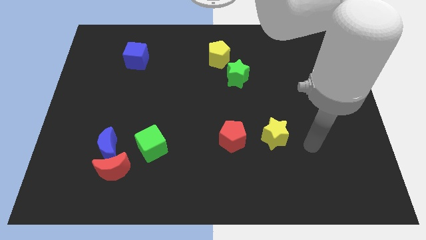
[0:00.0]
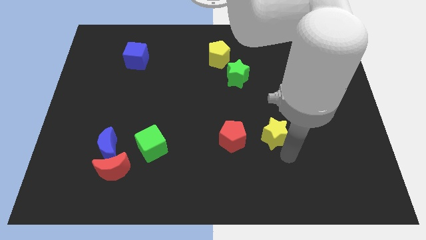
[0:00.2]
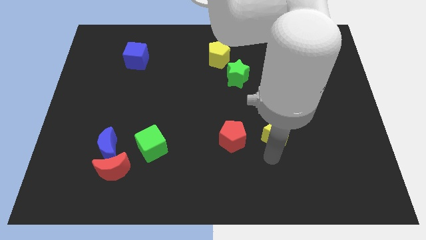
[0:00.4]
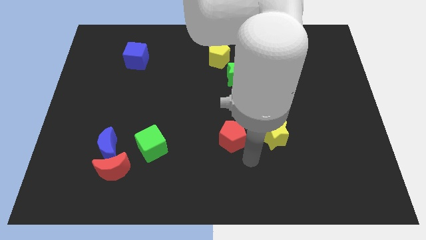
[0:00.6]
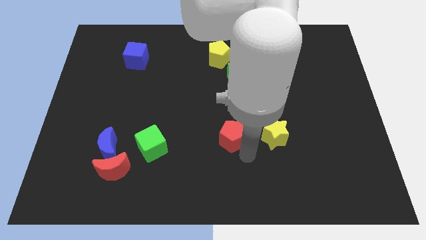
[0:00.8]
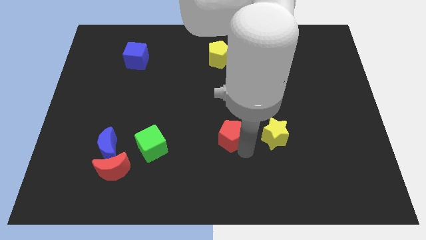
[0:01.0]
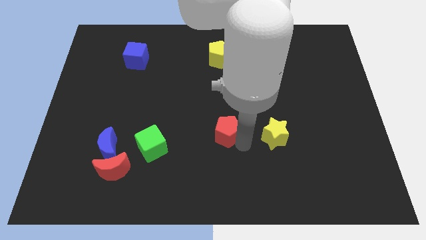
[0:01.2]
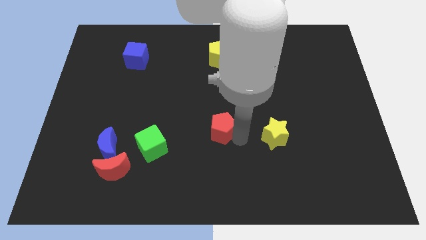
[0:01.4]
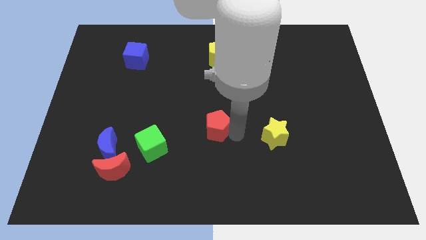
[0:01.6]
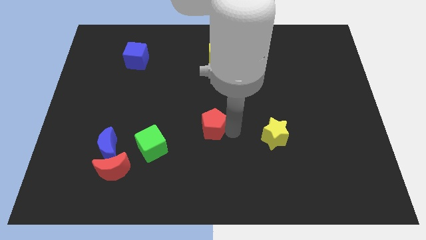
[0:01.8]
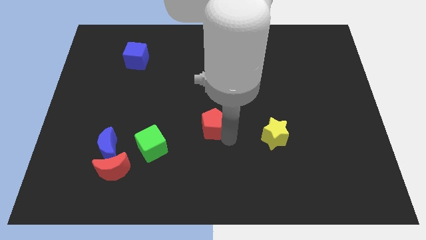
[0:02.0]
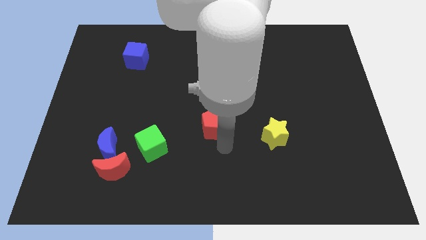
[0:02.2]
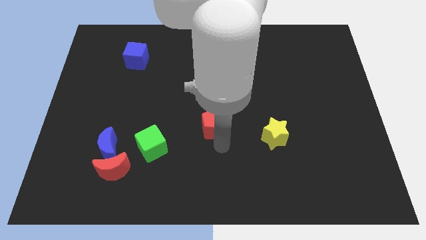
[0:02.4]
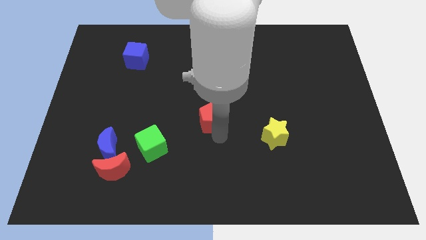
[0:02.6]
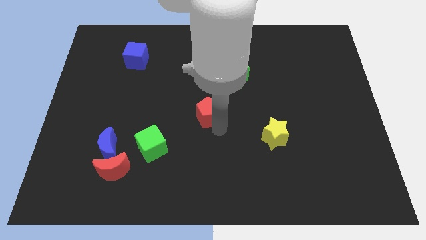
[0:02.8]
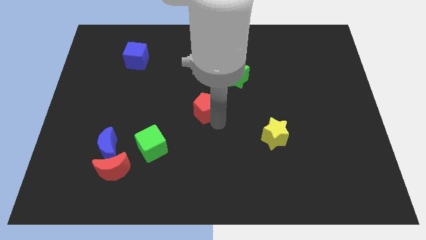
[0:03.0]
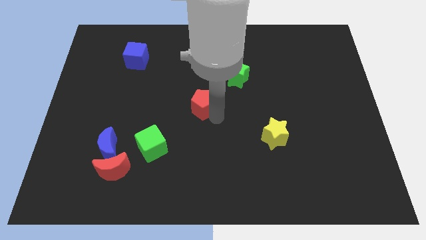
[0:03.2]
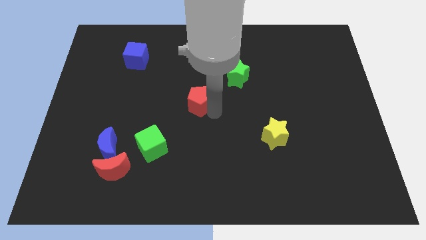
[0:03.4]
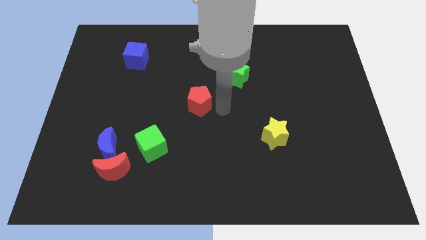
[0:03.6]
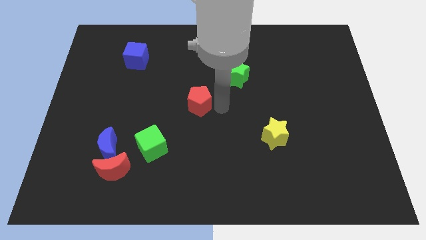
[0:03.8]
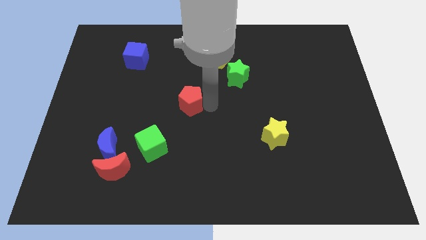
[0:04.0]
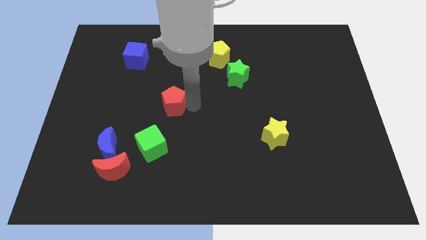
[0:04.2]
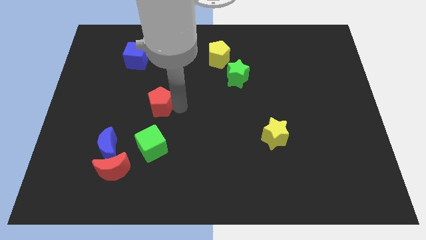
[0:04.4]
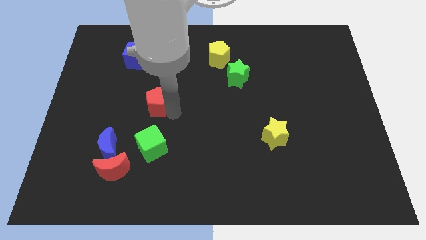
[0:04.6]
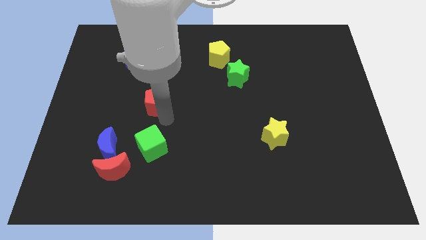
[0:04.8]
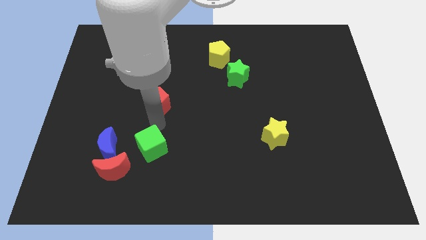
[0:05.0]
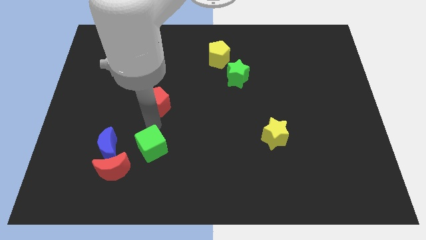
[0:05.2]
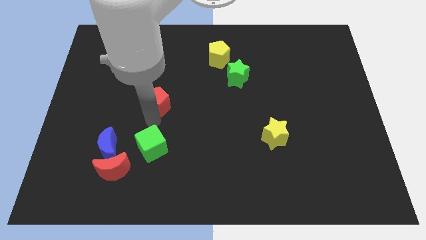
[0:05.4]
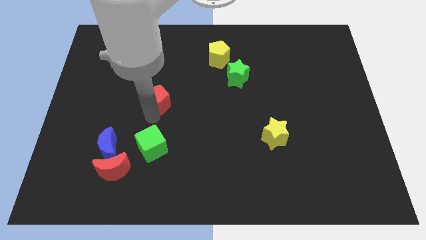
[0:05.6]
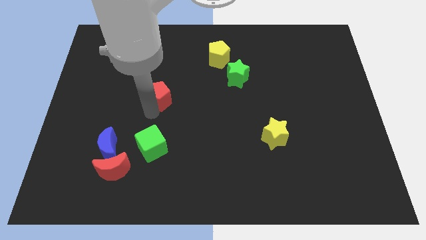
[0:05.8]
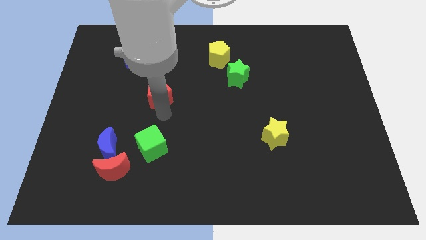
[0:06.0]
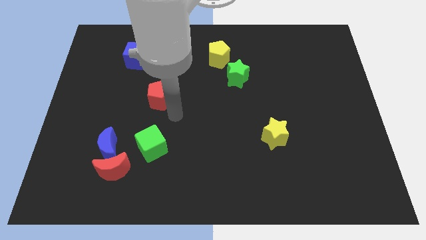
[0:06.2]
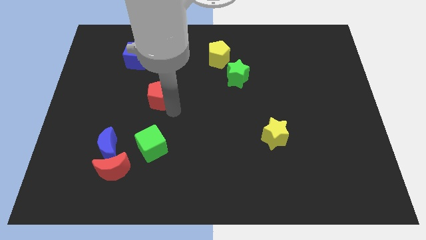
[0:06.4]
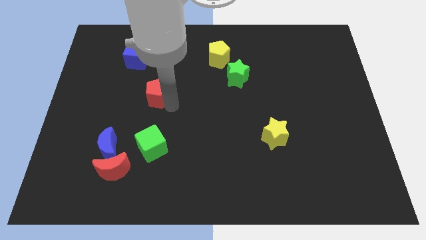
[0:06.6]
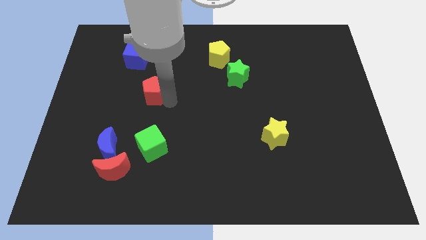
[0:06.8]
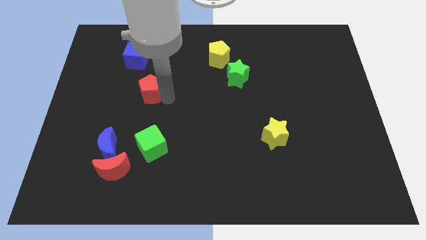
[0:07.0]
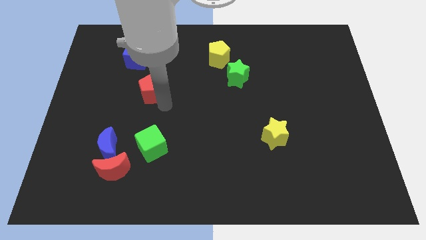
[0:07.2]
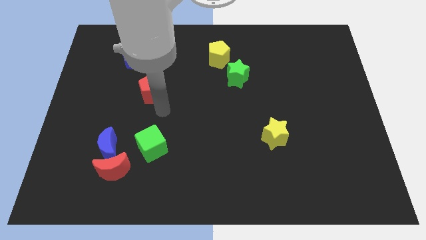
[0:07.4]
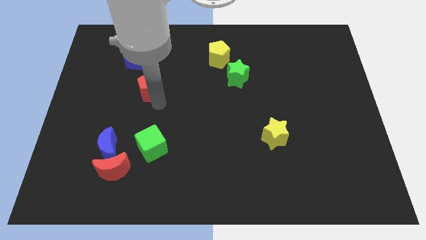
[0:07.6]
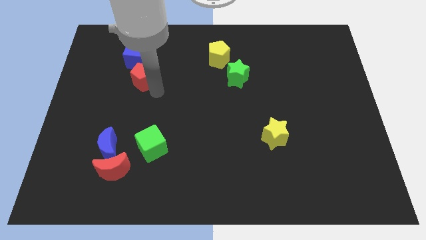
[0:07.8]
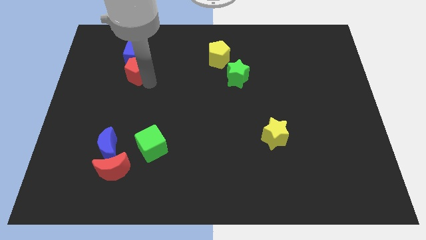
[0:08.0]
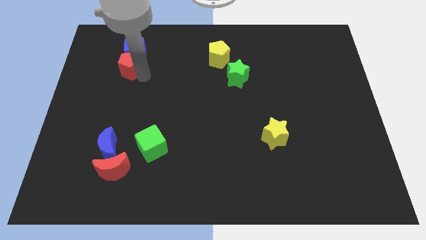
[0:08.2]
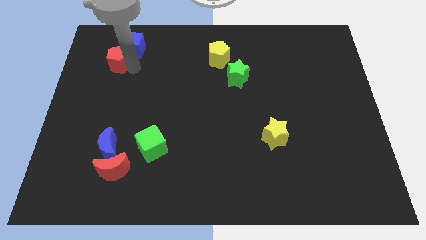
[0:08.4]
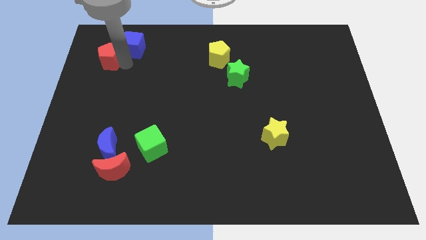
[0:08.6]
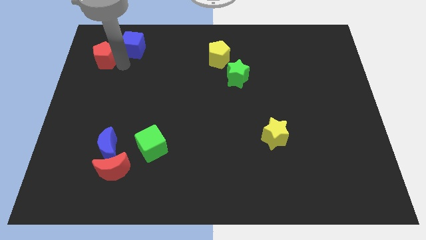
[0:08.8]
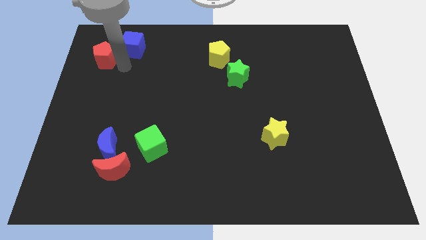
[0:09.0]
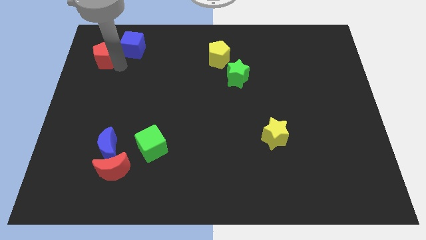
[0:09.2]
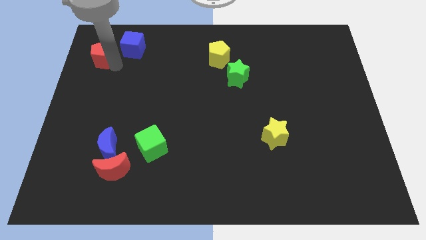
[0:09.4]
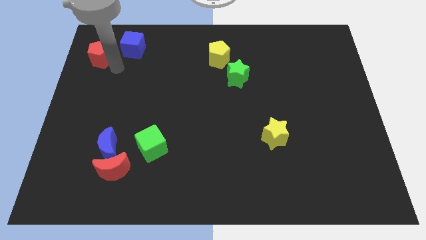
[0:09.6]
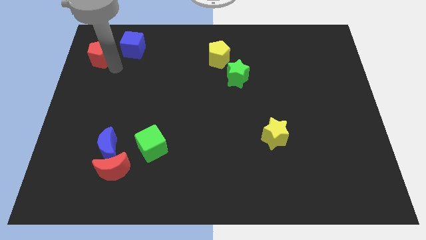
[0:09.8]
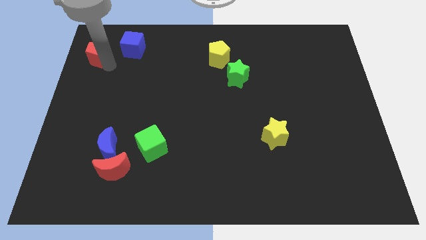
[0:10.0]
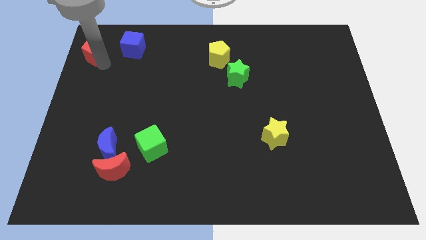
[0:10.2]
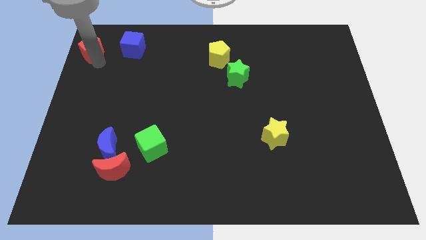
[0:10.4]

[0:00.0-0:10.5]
slide the red pentagon to the upper left corner

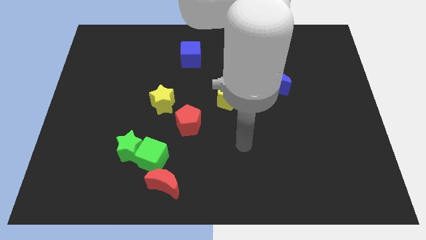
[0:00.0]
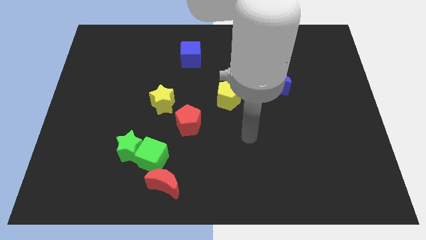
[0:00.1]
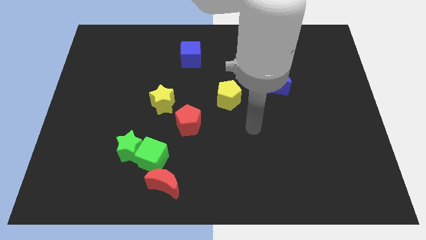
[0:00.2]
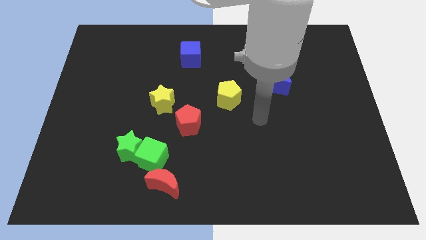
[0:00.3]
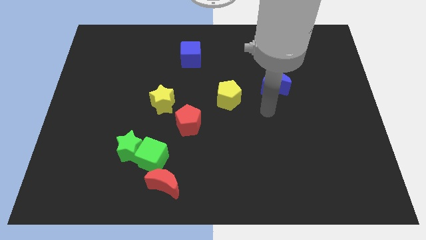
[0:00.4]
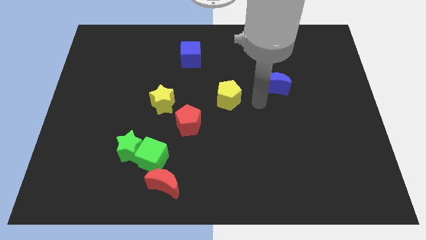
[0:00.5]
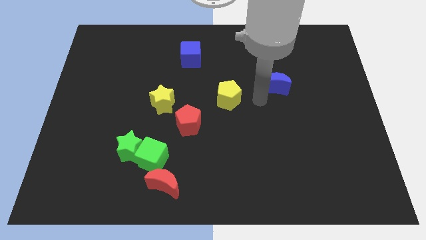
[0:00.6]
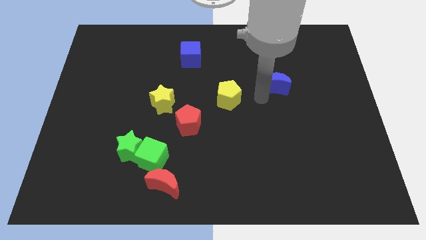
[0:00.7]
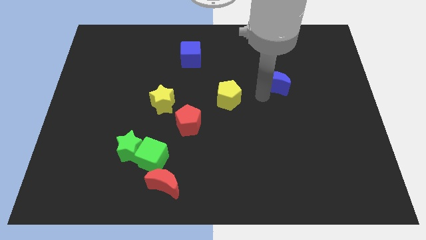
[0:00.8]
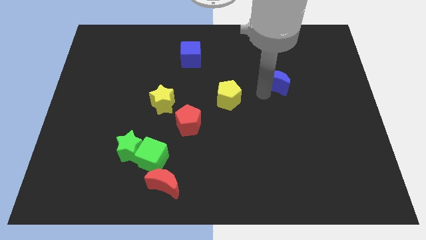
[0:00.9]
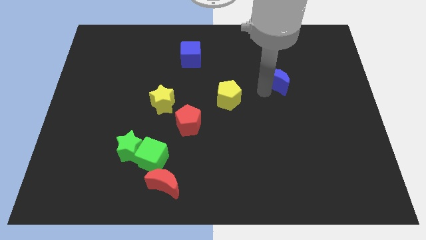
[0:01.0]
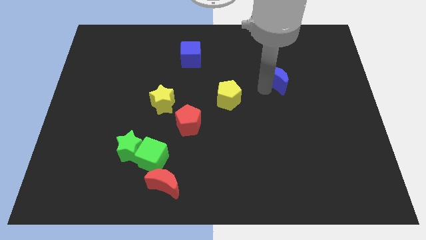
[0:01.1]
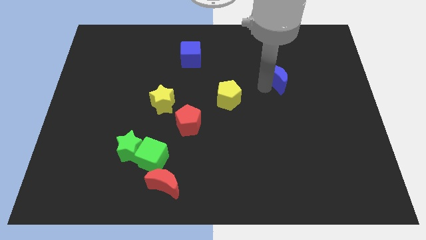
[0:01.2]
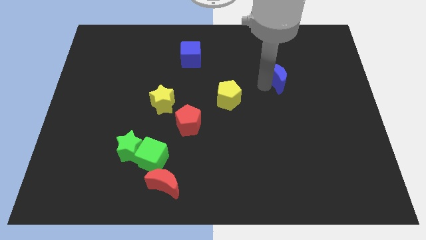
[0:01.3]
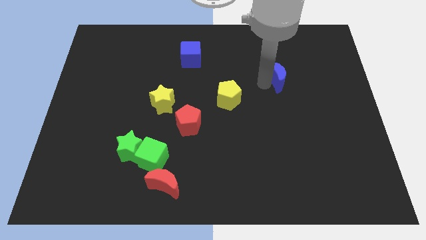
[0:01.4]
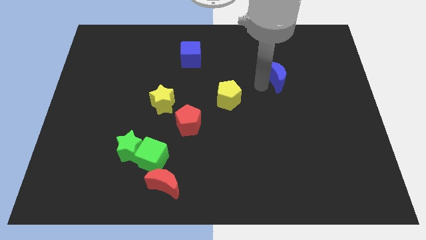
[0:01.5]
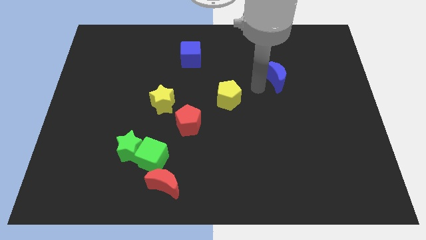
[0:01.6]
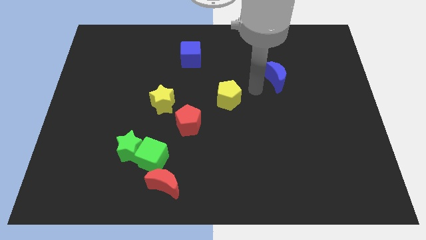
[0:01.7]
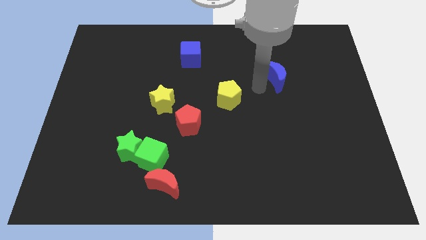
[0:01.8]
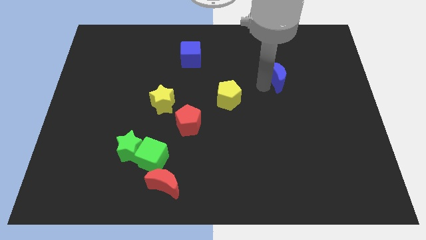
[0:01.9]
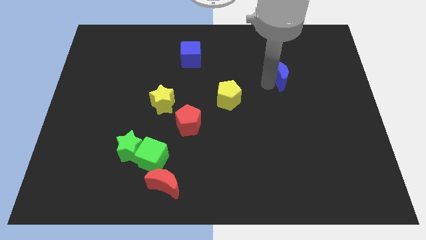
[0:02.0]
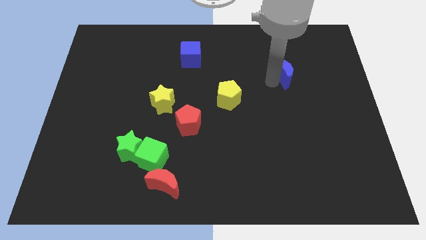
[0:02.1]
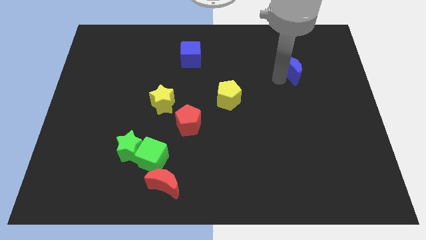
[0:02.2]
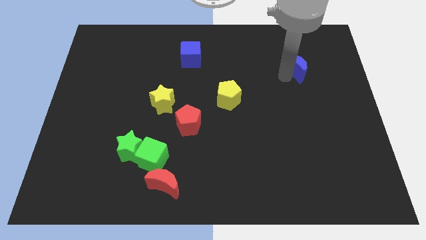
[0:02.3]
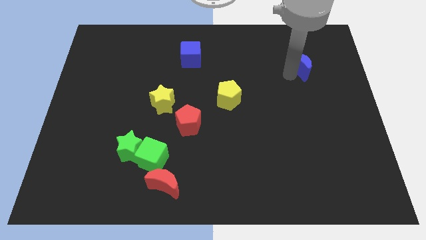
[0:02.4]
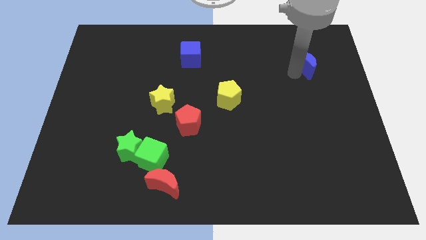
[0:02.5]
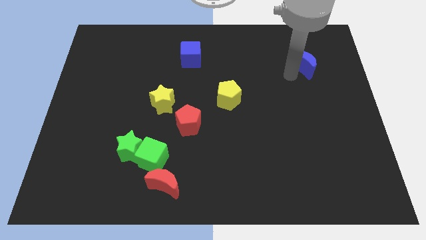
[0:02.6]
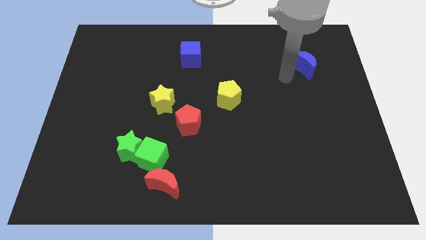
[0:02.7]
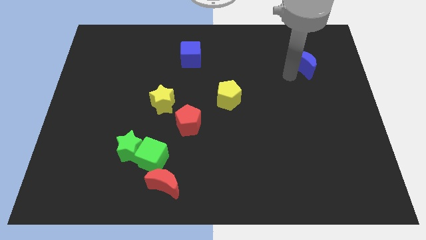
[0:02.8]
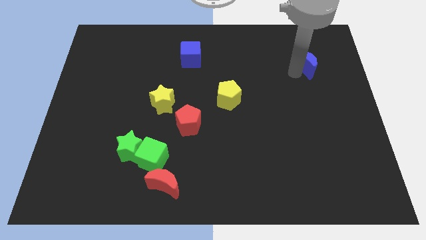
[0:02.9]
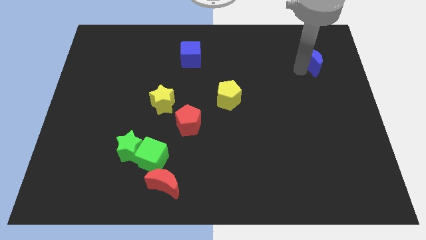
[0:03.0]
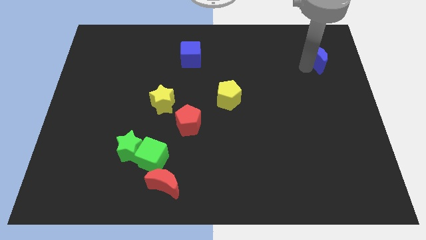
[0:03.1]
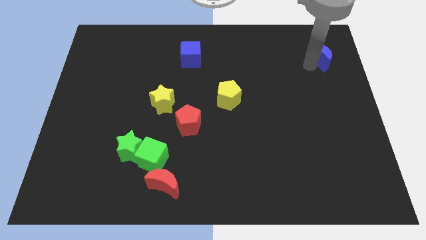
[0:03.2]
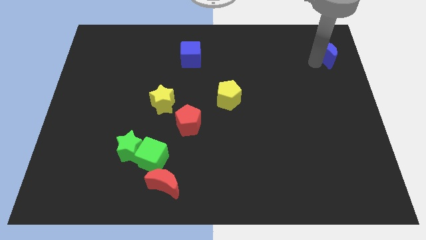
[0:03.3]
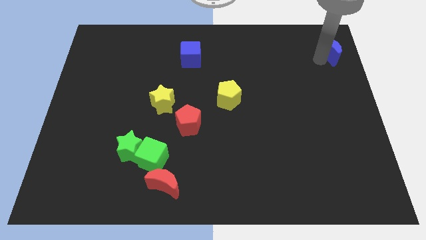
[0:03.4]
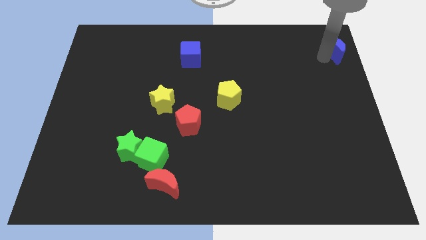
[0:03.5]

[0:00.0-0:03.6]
put the blue moon to the top right corner
